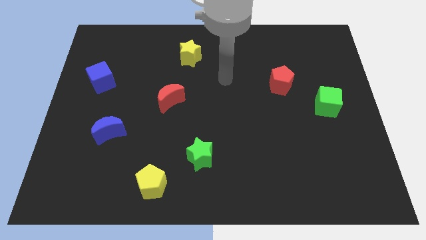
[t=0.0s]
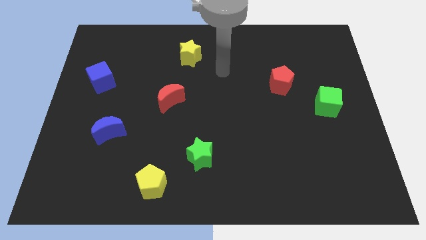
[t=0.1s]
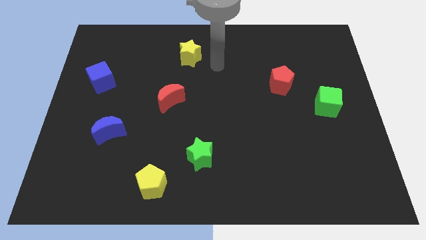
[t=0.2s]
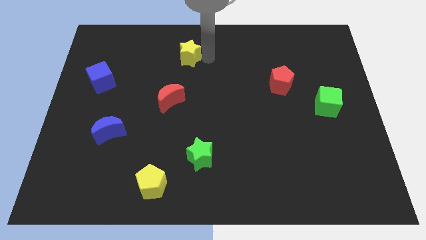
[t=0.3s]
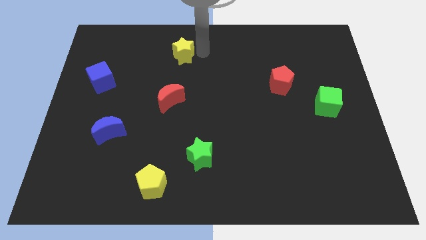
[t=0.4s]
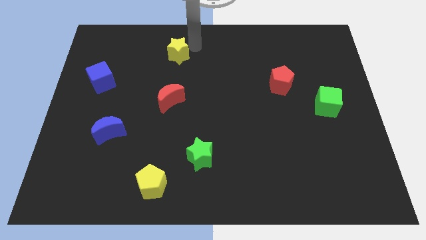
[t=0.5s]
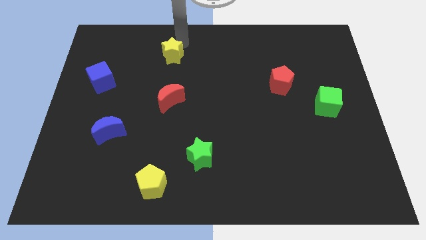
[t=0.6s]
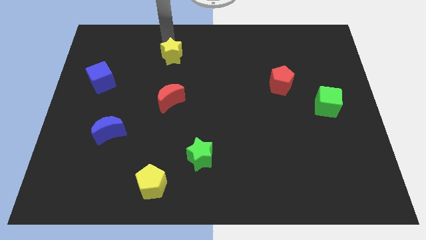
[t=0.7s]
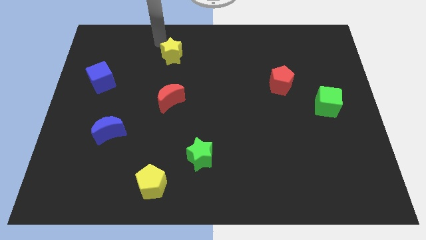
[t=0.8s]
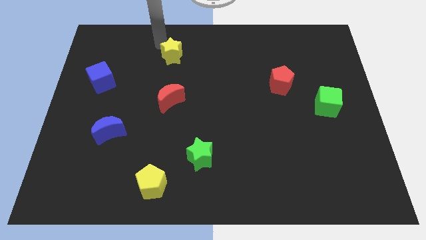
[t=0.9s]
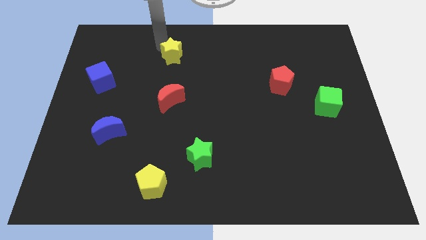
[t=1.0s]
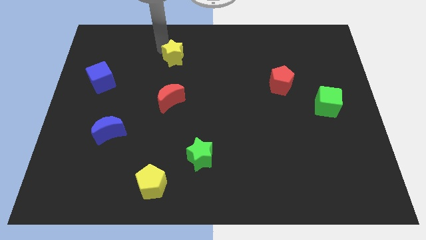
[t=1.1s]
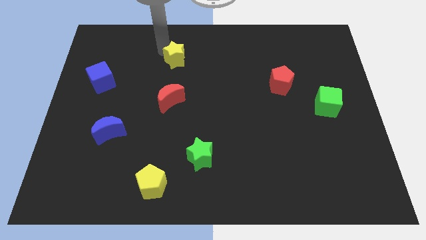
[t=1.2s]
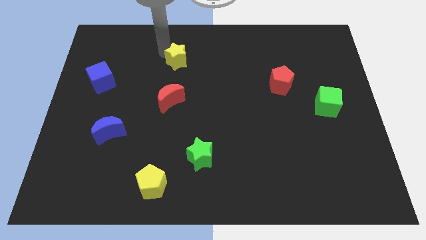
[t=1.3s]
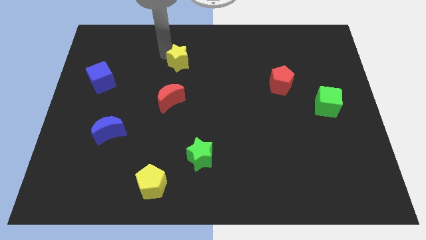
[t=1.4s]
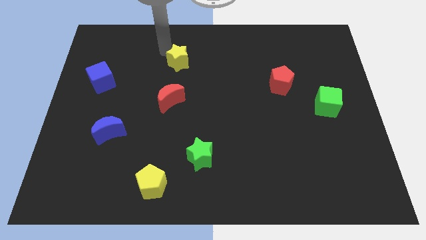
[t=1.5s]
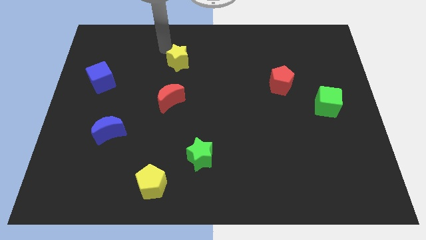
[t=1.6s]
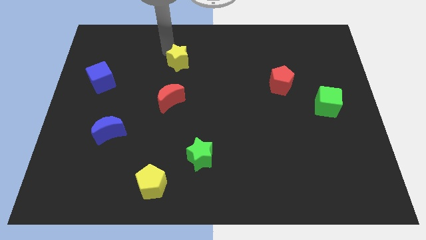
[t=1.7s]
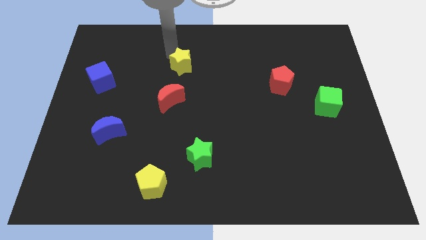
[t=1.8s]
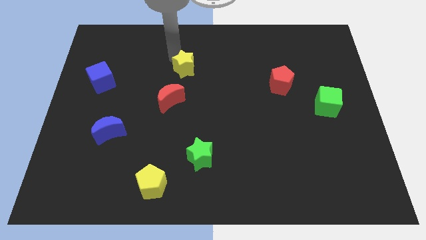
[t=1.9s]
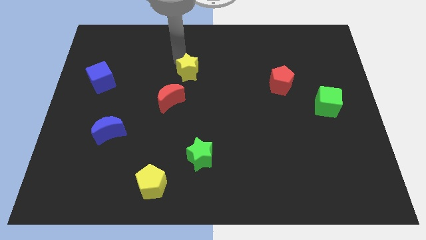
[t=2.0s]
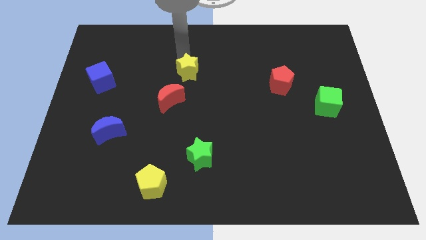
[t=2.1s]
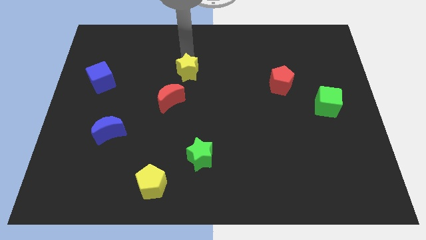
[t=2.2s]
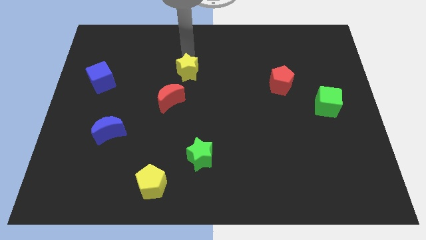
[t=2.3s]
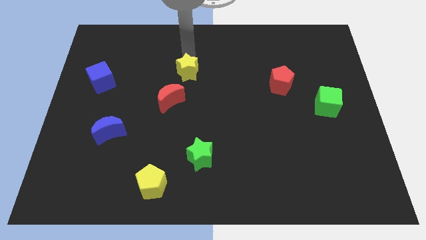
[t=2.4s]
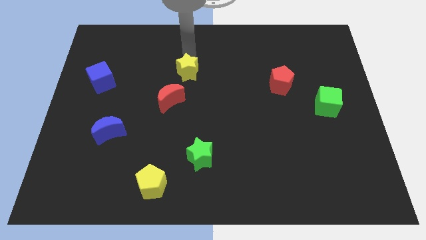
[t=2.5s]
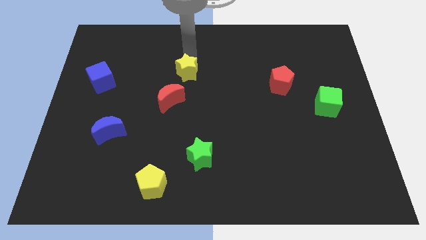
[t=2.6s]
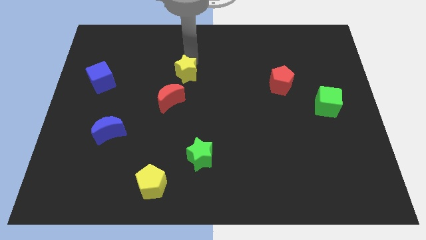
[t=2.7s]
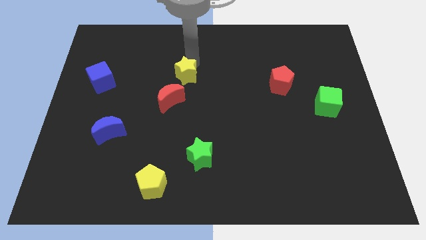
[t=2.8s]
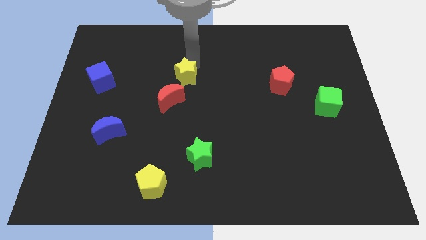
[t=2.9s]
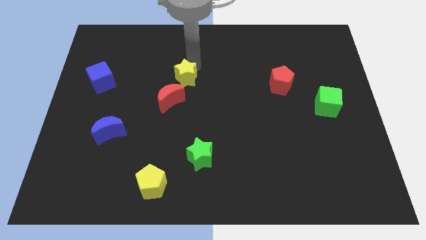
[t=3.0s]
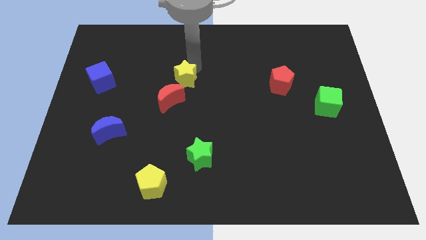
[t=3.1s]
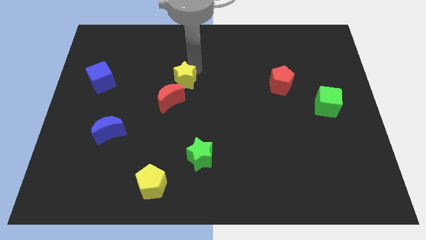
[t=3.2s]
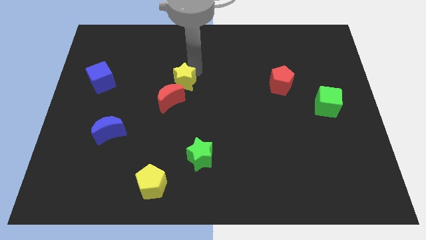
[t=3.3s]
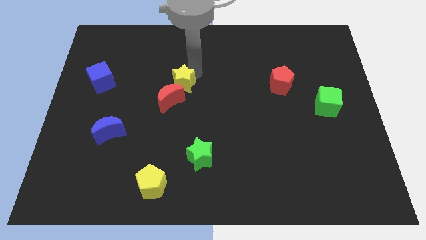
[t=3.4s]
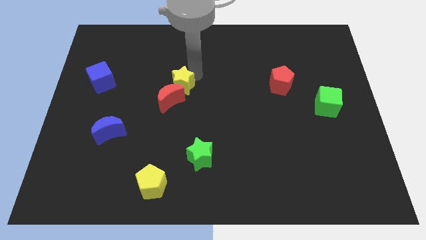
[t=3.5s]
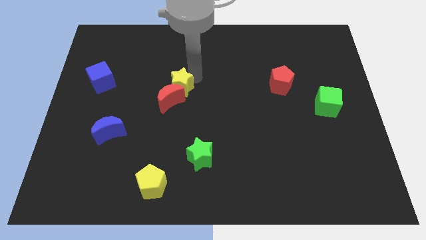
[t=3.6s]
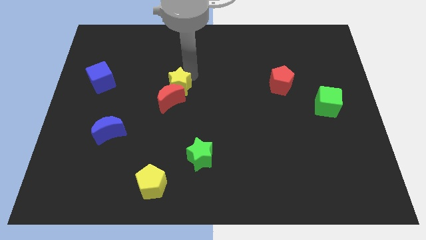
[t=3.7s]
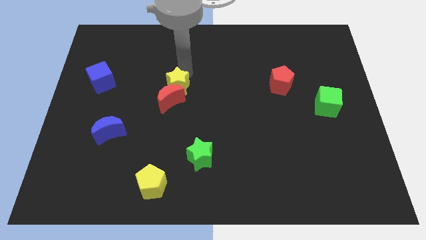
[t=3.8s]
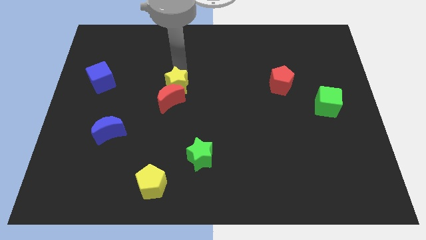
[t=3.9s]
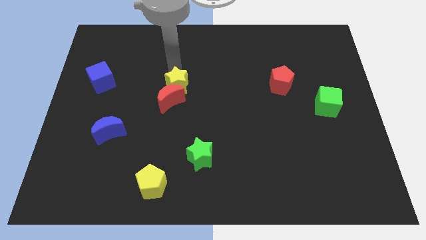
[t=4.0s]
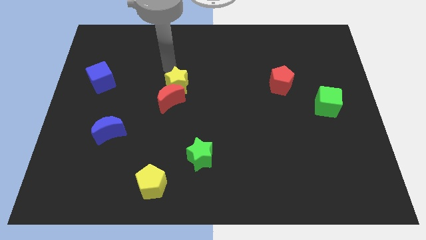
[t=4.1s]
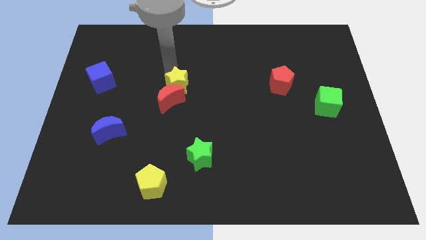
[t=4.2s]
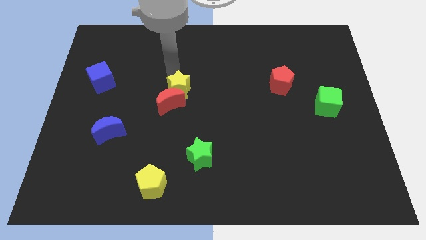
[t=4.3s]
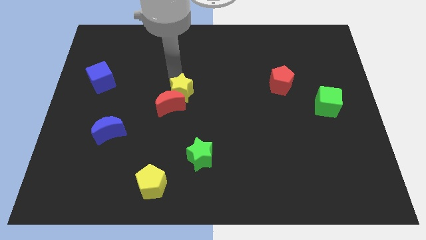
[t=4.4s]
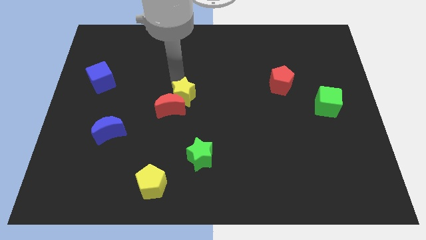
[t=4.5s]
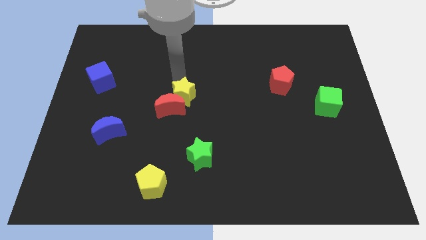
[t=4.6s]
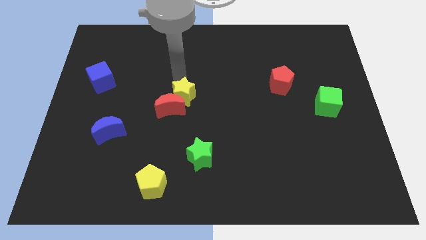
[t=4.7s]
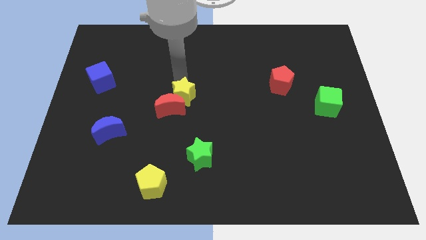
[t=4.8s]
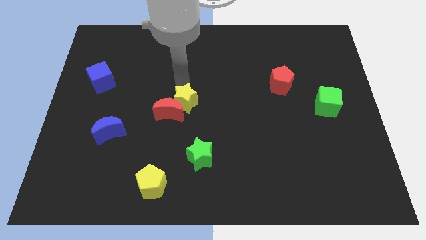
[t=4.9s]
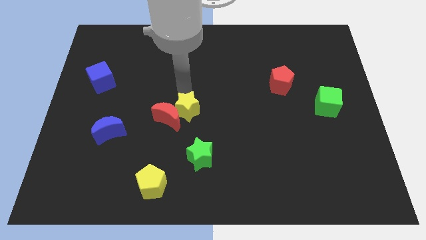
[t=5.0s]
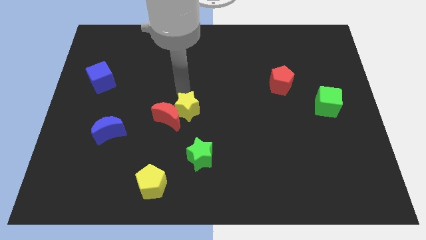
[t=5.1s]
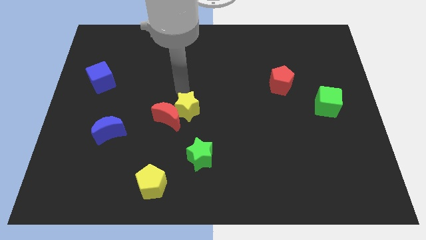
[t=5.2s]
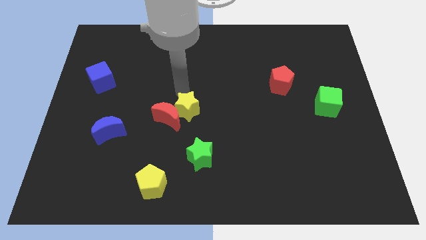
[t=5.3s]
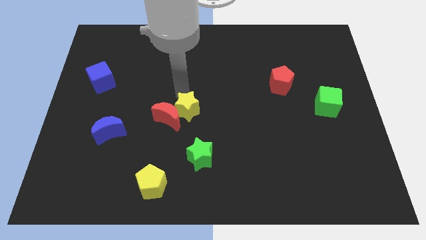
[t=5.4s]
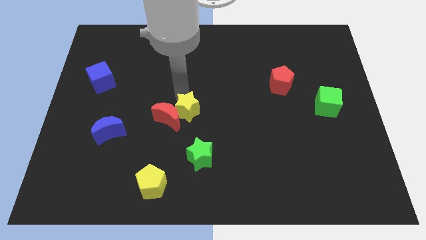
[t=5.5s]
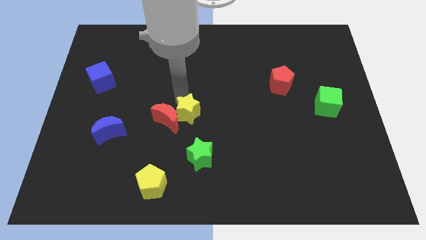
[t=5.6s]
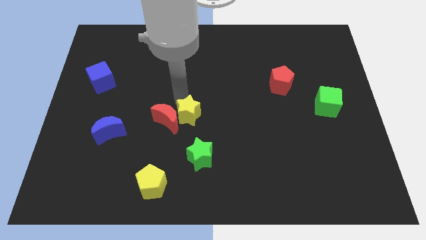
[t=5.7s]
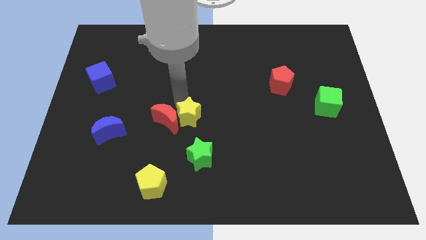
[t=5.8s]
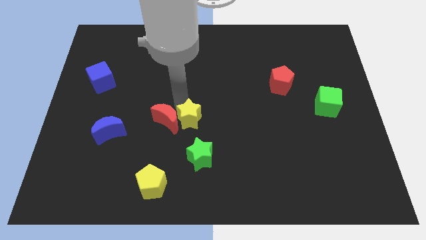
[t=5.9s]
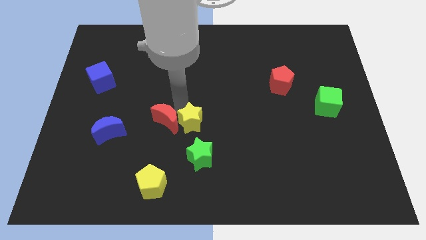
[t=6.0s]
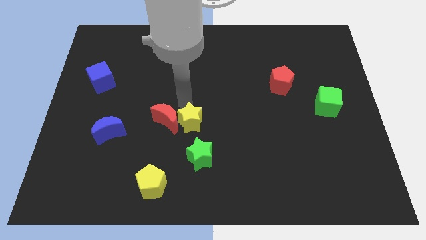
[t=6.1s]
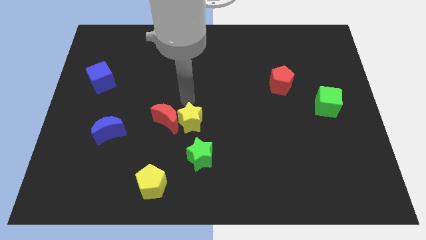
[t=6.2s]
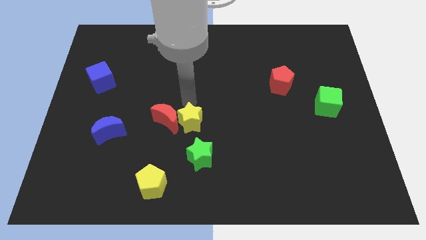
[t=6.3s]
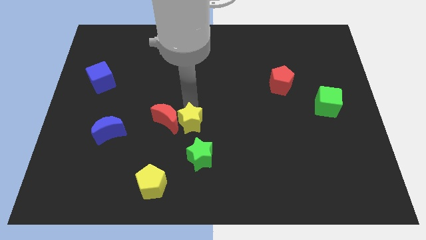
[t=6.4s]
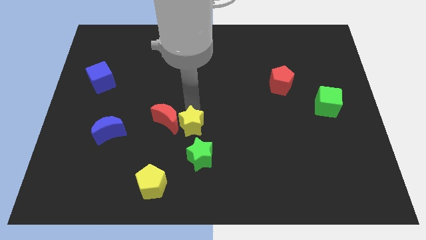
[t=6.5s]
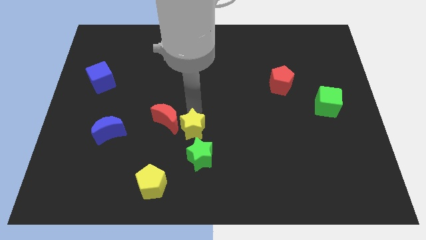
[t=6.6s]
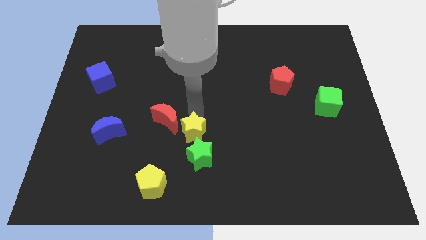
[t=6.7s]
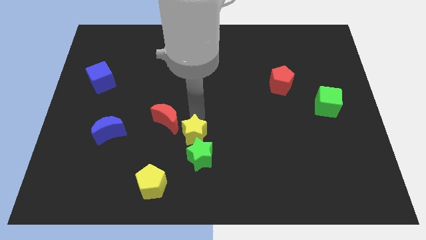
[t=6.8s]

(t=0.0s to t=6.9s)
move the yellow star close to the green star

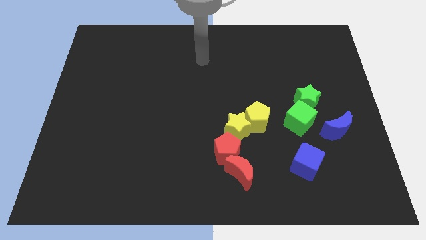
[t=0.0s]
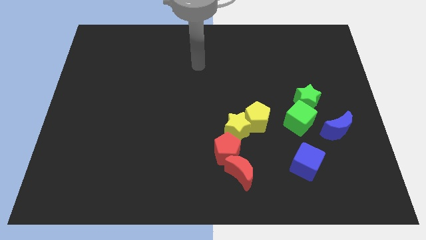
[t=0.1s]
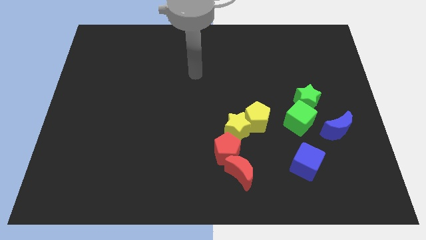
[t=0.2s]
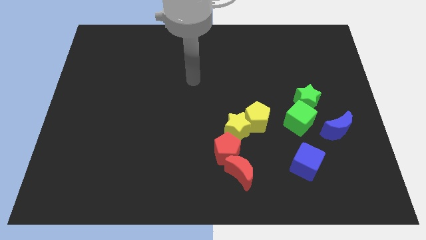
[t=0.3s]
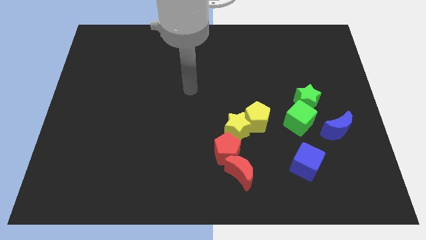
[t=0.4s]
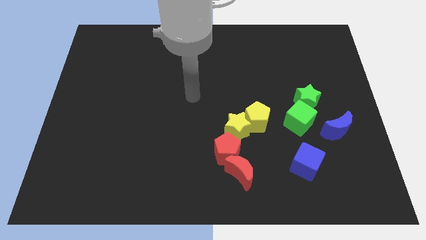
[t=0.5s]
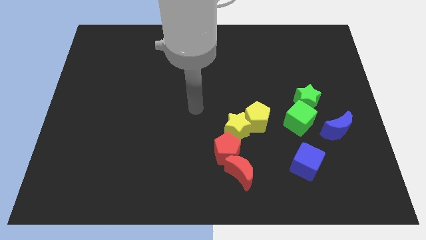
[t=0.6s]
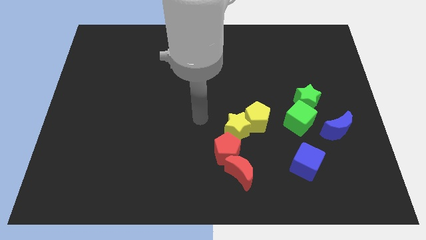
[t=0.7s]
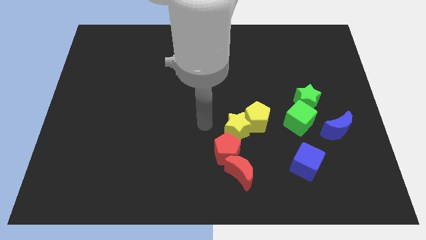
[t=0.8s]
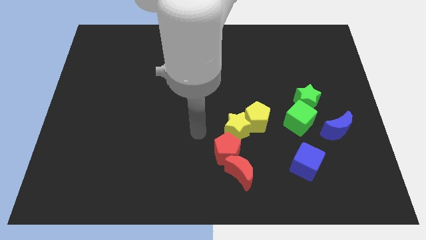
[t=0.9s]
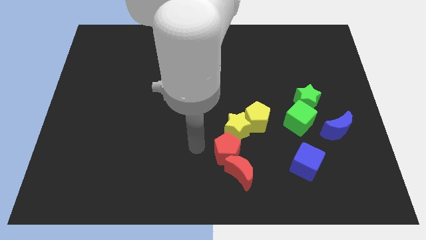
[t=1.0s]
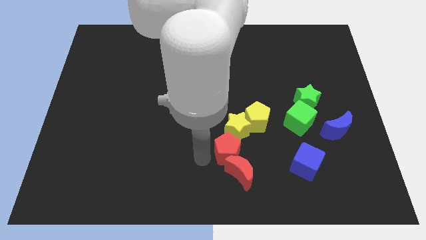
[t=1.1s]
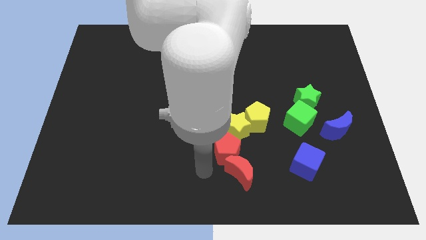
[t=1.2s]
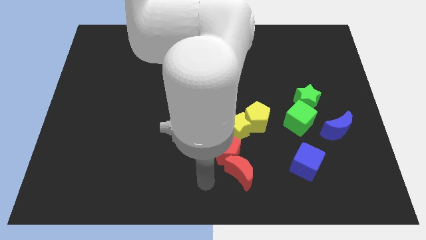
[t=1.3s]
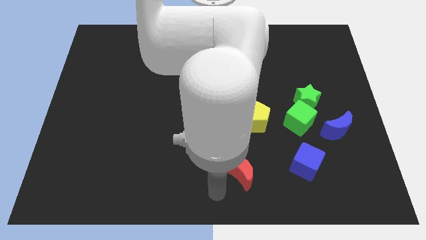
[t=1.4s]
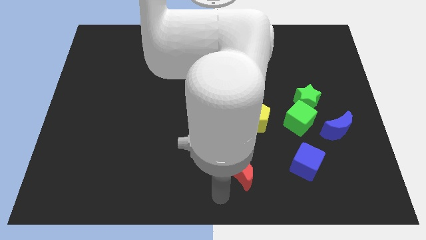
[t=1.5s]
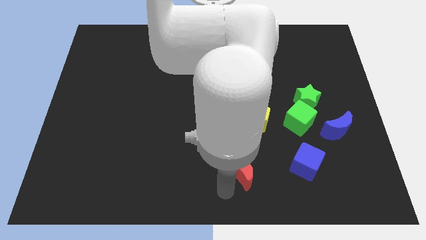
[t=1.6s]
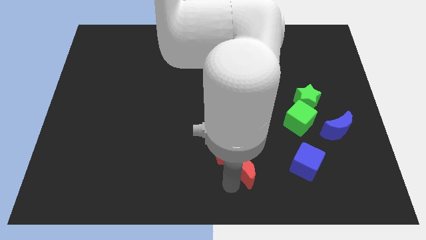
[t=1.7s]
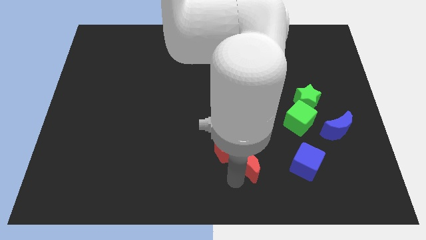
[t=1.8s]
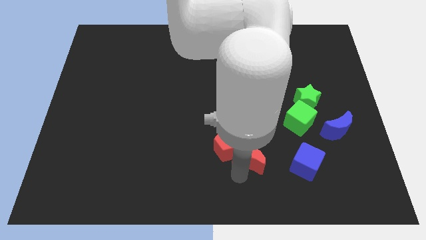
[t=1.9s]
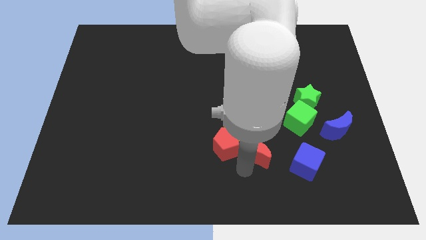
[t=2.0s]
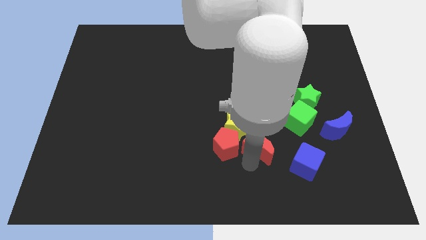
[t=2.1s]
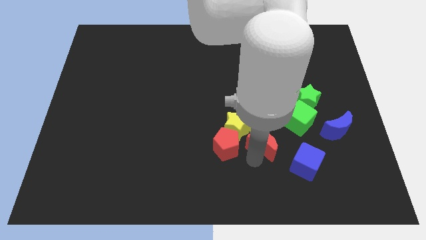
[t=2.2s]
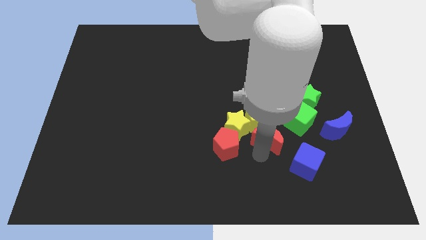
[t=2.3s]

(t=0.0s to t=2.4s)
move the red moon to the yellow pentagon
